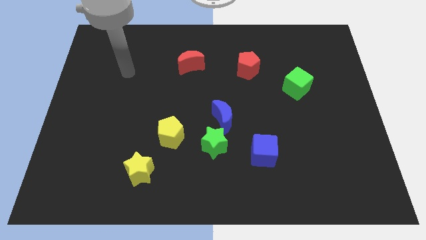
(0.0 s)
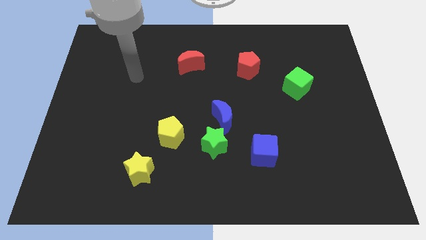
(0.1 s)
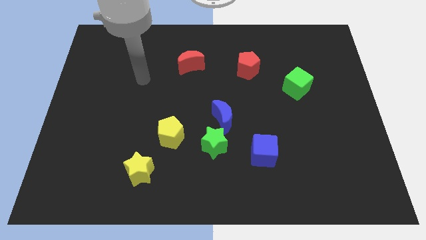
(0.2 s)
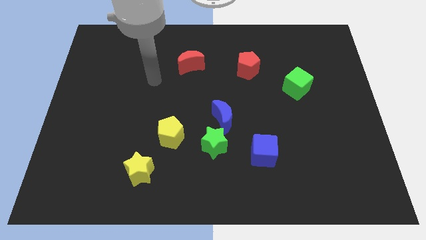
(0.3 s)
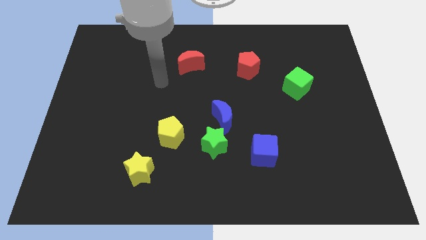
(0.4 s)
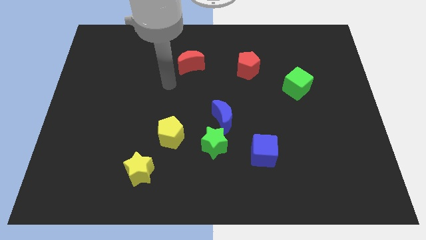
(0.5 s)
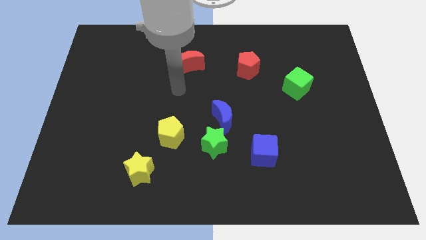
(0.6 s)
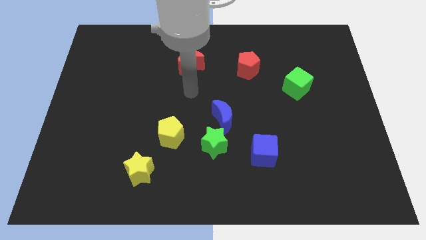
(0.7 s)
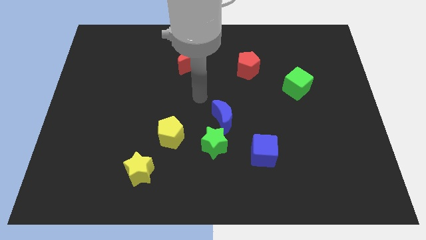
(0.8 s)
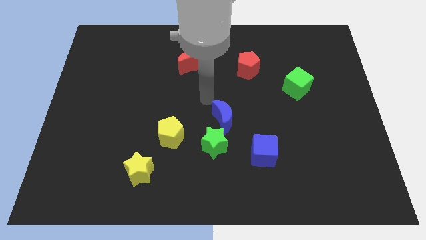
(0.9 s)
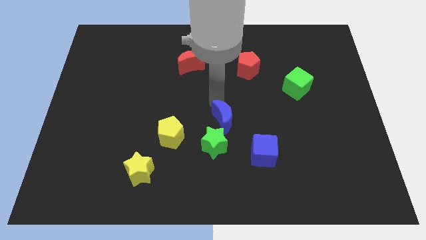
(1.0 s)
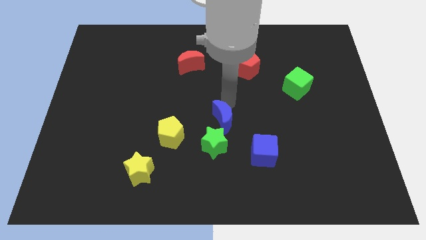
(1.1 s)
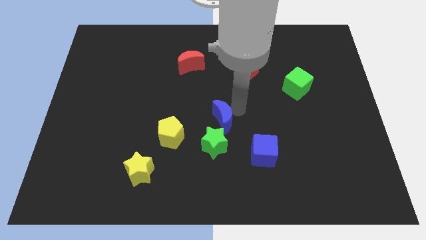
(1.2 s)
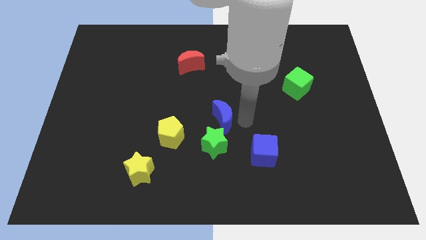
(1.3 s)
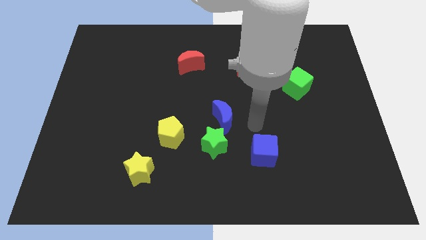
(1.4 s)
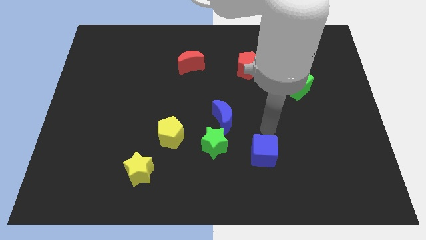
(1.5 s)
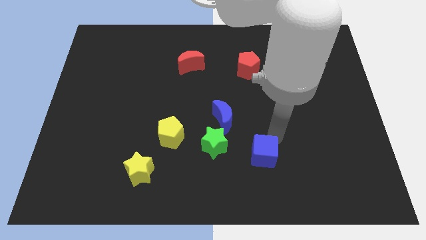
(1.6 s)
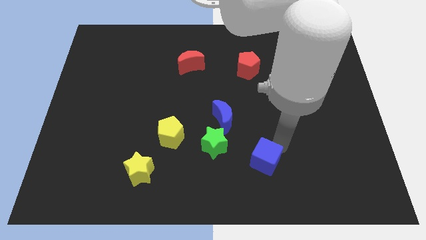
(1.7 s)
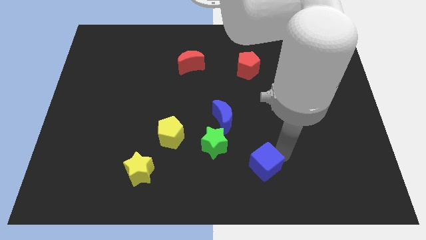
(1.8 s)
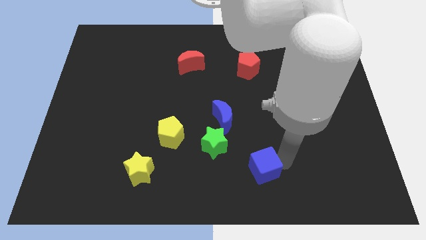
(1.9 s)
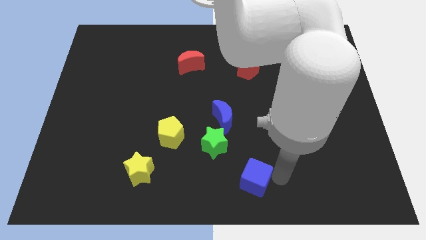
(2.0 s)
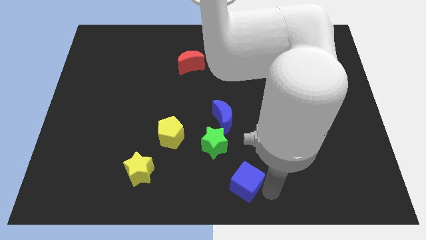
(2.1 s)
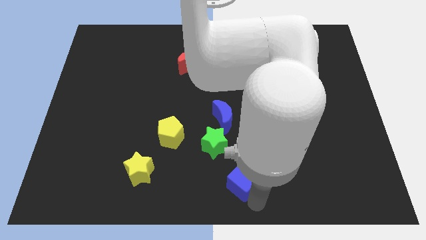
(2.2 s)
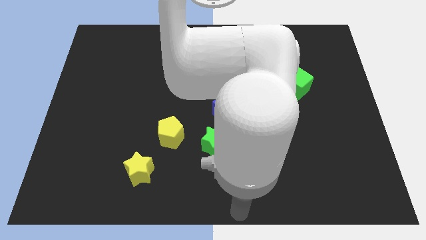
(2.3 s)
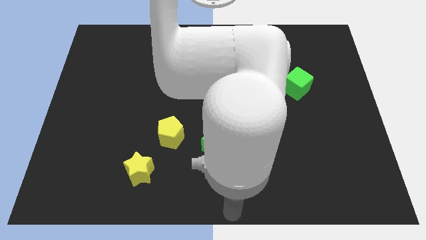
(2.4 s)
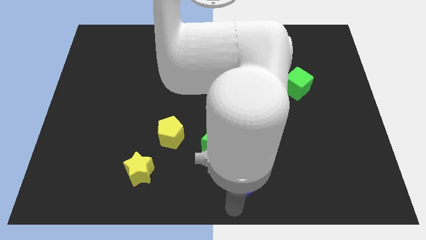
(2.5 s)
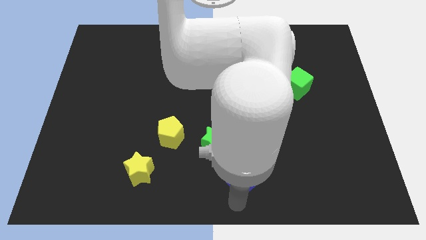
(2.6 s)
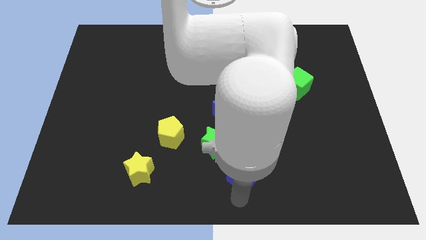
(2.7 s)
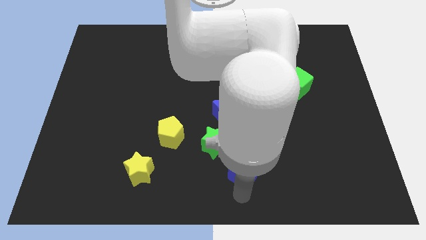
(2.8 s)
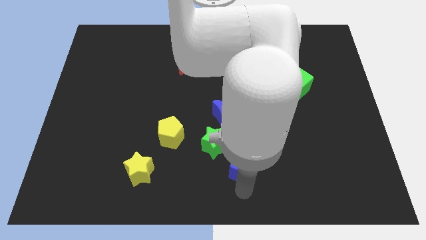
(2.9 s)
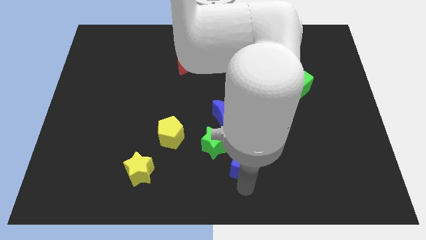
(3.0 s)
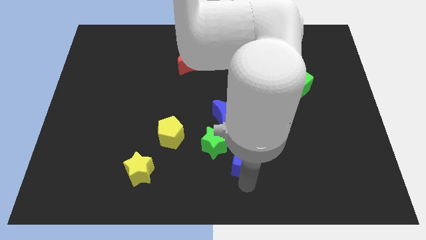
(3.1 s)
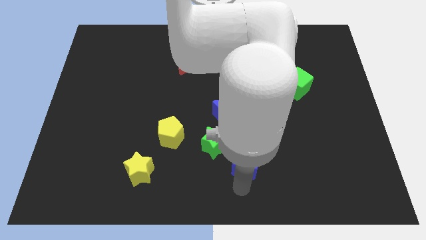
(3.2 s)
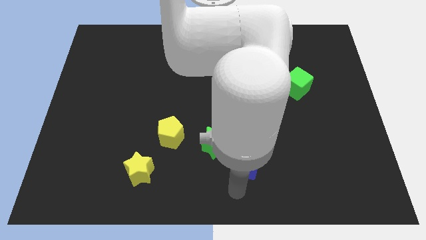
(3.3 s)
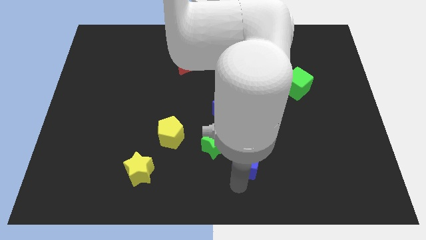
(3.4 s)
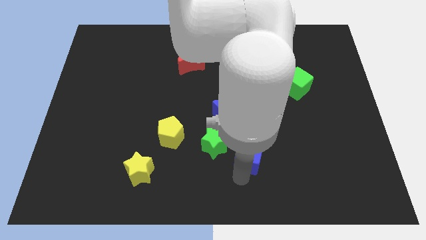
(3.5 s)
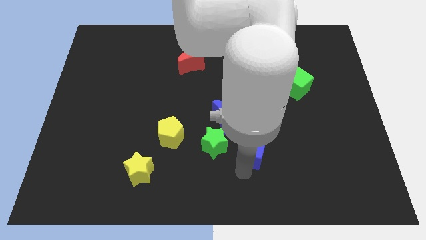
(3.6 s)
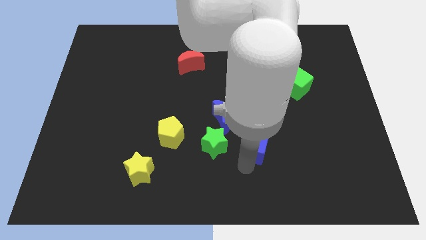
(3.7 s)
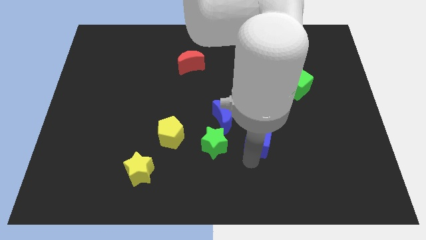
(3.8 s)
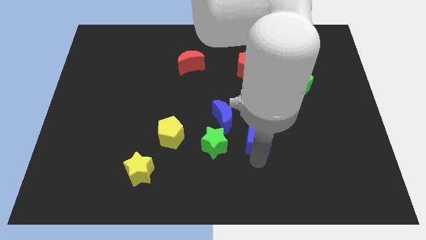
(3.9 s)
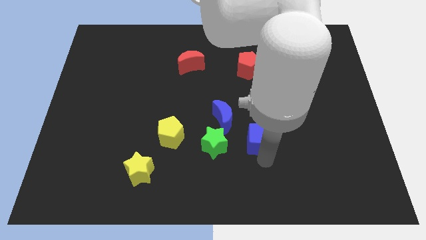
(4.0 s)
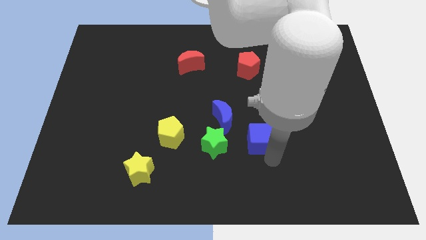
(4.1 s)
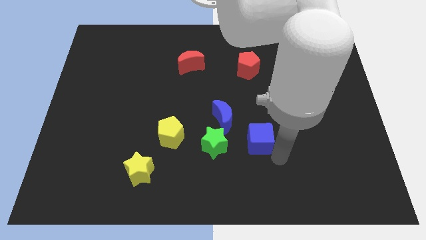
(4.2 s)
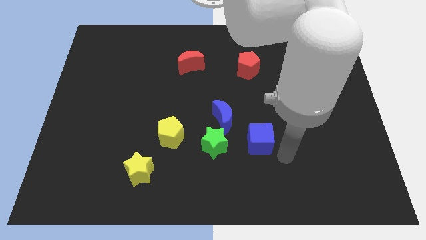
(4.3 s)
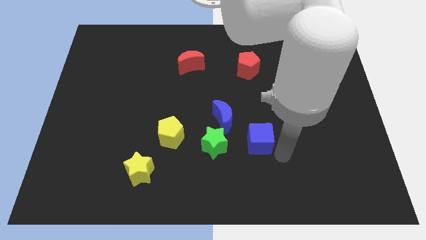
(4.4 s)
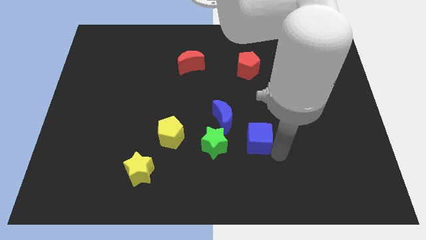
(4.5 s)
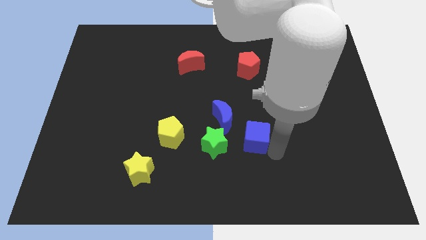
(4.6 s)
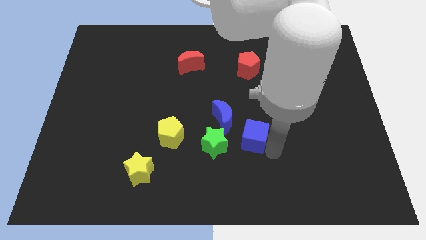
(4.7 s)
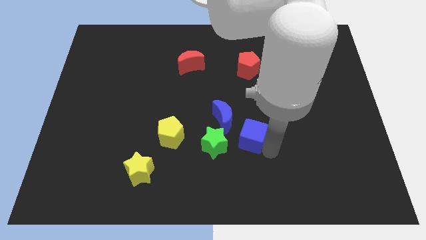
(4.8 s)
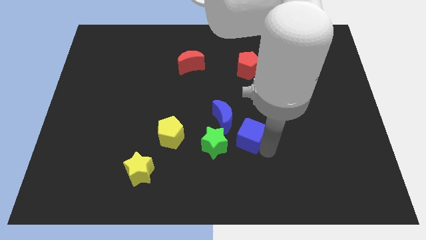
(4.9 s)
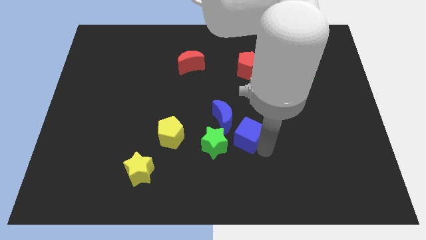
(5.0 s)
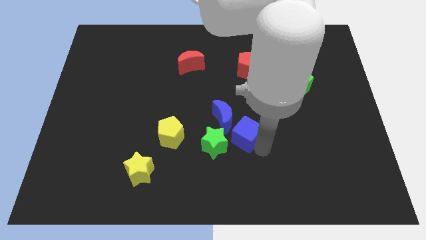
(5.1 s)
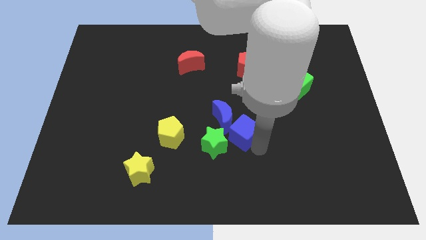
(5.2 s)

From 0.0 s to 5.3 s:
slide the blue cube to the blue moon

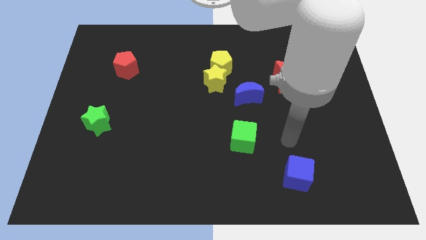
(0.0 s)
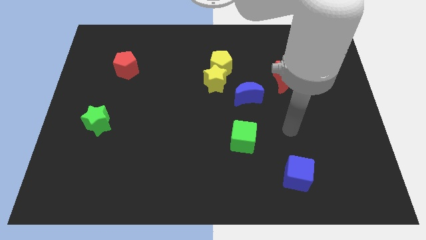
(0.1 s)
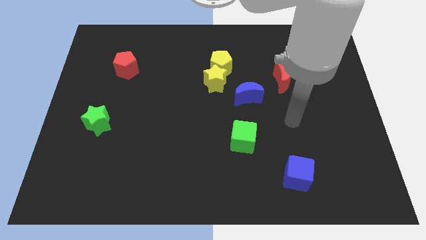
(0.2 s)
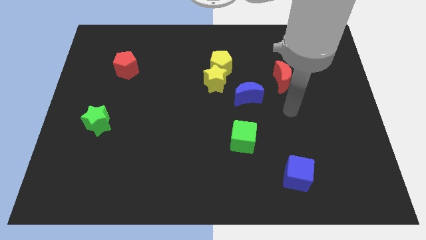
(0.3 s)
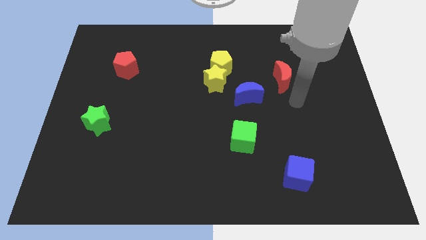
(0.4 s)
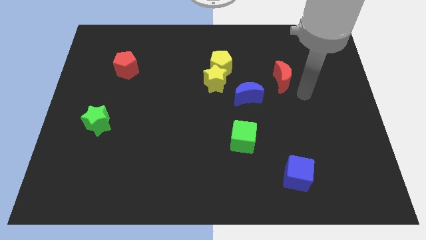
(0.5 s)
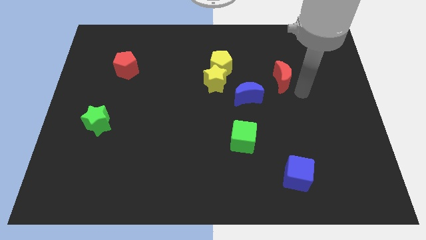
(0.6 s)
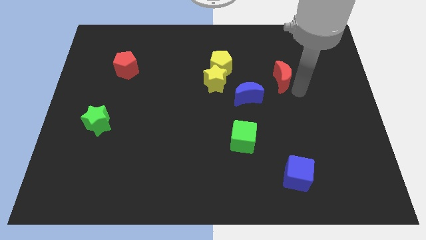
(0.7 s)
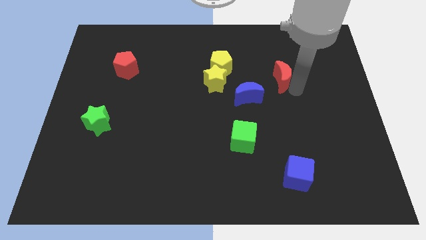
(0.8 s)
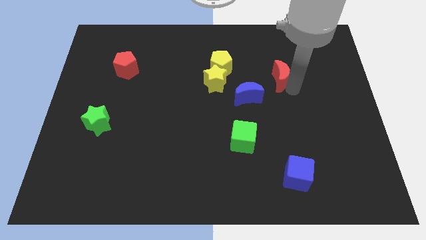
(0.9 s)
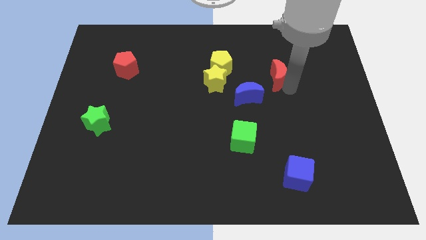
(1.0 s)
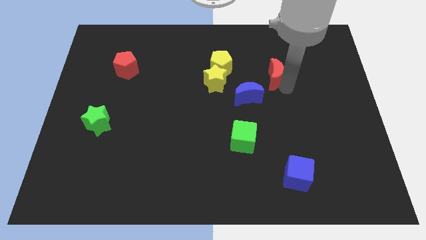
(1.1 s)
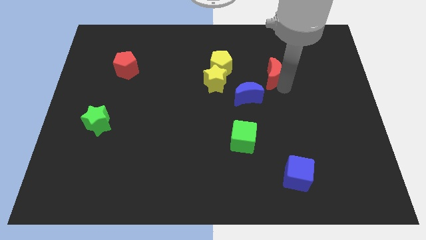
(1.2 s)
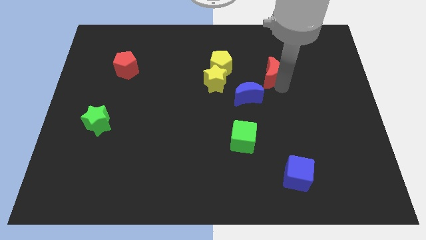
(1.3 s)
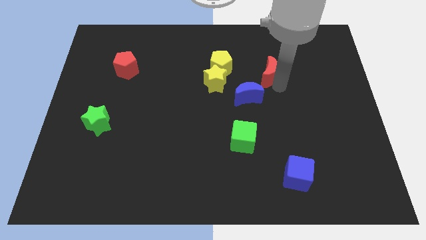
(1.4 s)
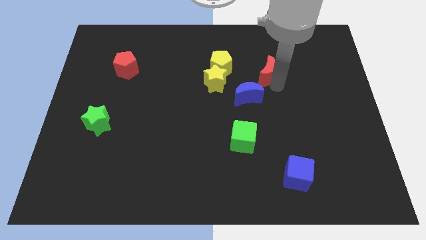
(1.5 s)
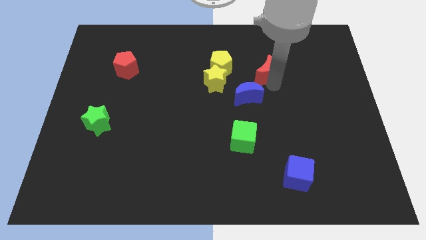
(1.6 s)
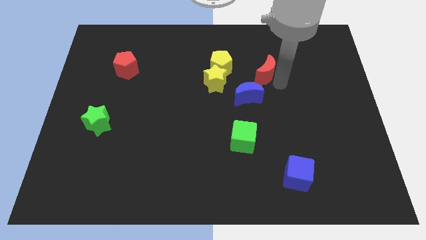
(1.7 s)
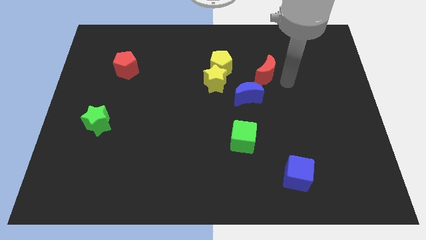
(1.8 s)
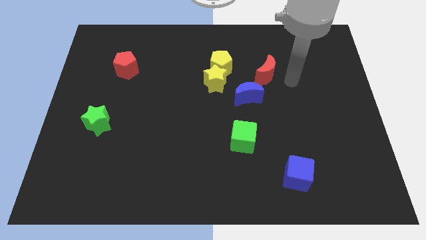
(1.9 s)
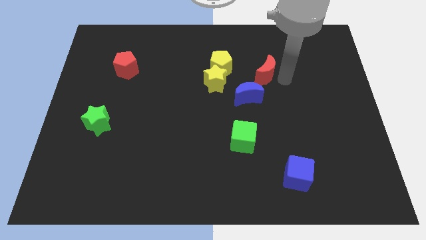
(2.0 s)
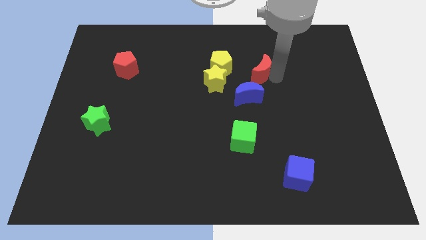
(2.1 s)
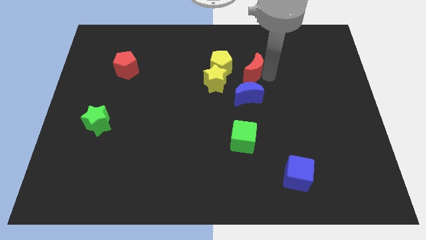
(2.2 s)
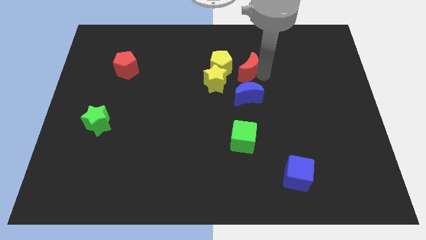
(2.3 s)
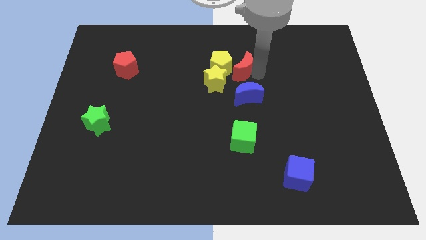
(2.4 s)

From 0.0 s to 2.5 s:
put the red moon next to the yellow pentagon
